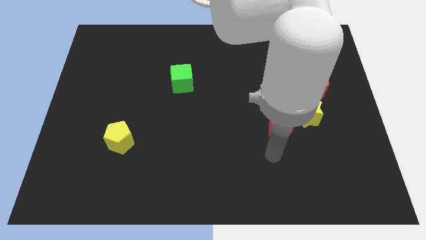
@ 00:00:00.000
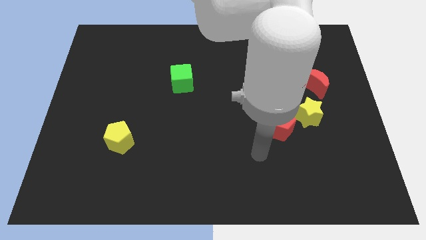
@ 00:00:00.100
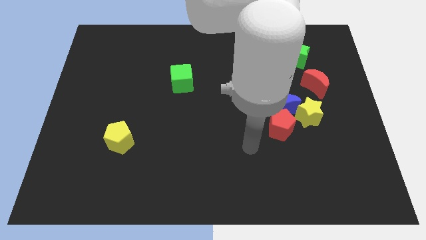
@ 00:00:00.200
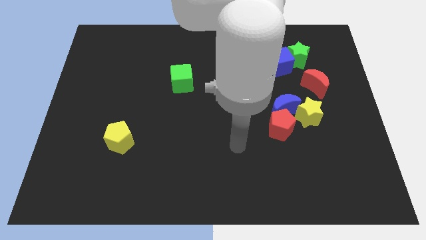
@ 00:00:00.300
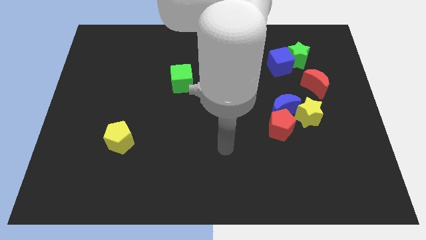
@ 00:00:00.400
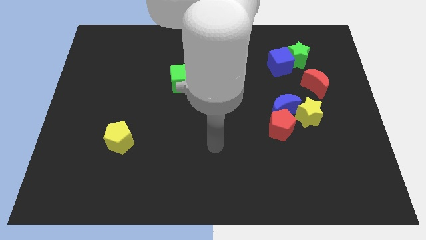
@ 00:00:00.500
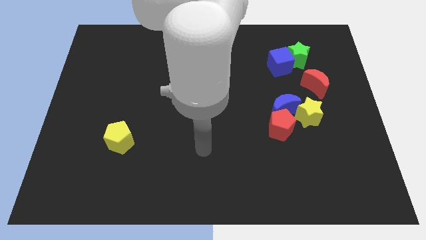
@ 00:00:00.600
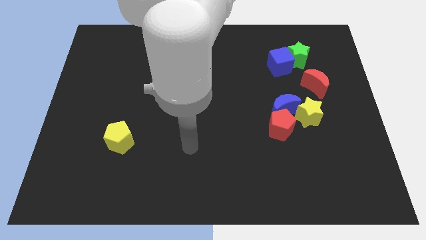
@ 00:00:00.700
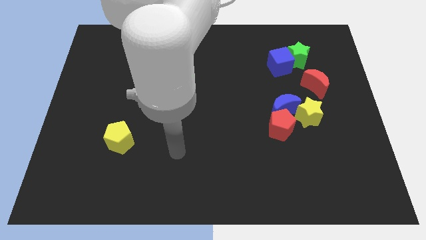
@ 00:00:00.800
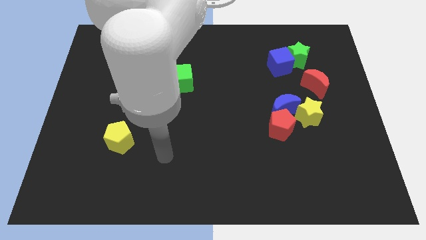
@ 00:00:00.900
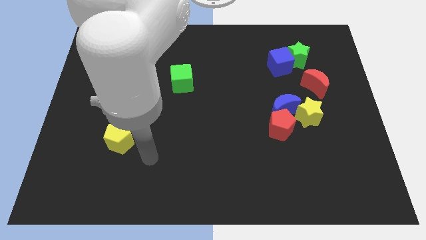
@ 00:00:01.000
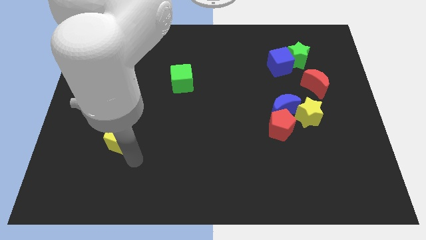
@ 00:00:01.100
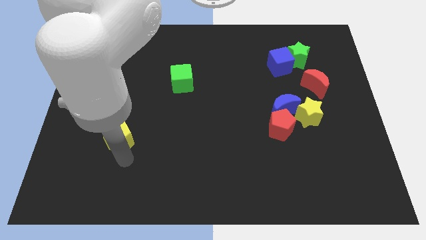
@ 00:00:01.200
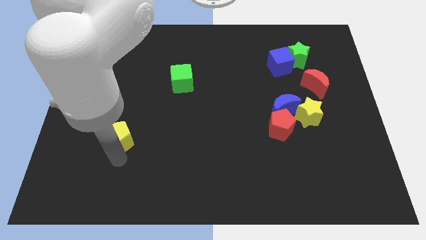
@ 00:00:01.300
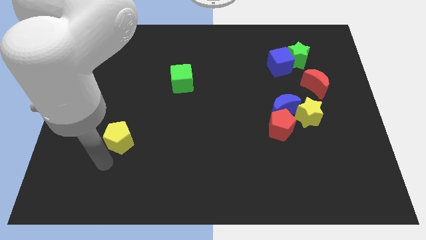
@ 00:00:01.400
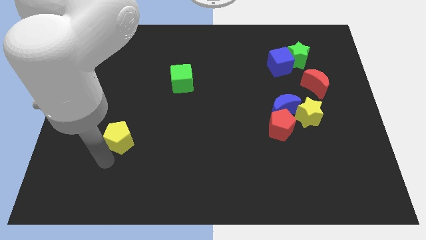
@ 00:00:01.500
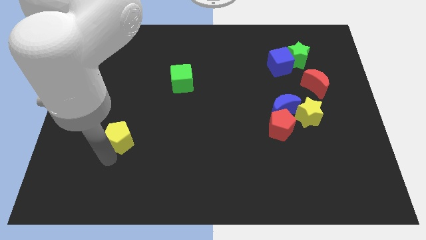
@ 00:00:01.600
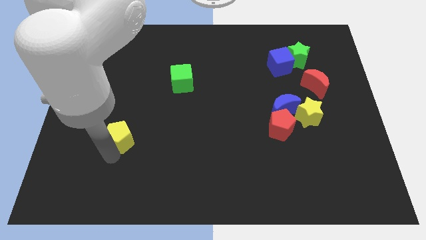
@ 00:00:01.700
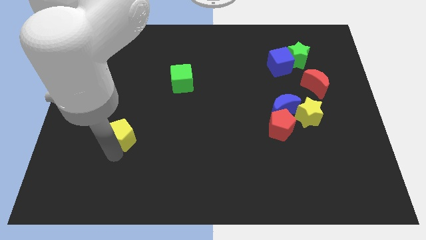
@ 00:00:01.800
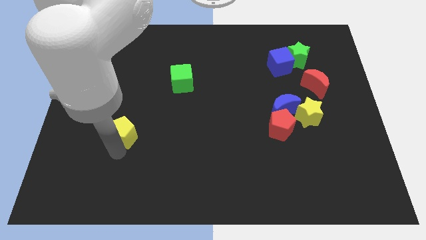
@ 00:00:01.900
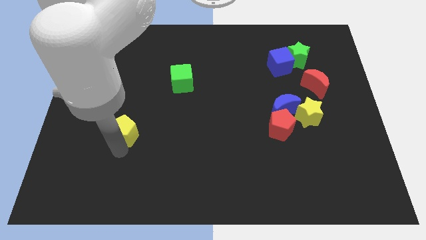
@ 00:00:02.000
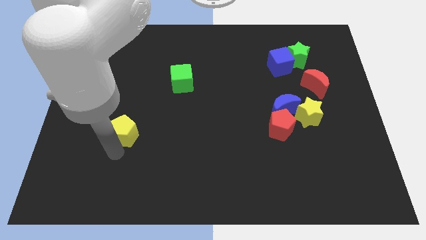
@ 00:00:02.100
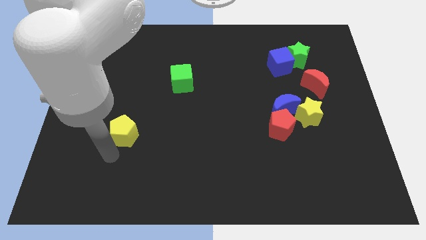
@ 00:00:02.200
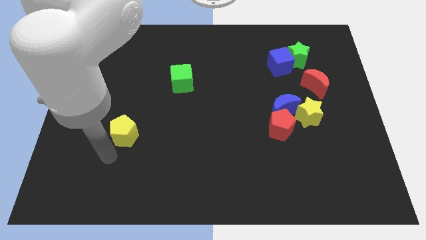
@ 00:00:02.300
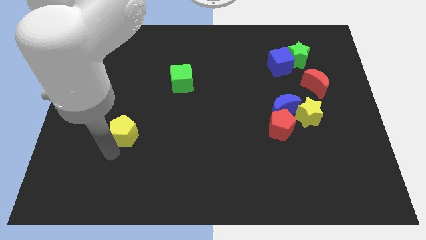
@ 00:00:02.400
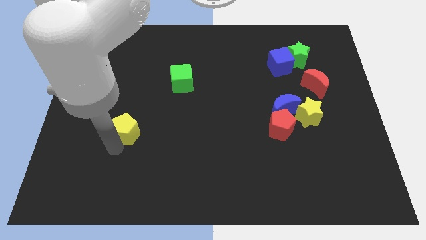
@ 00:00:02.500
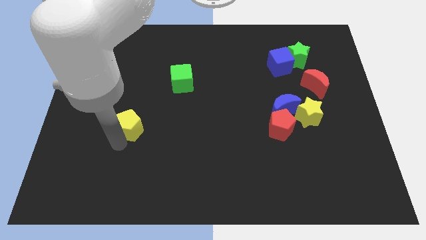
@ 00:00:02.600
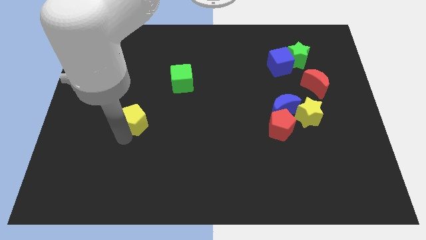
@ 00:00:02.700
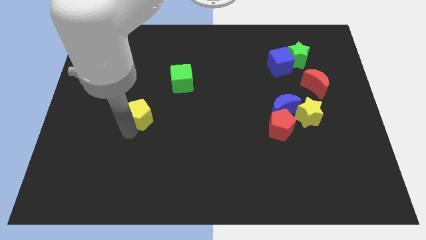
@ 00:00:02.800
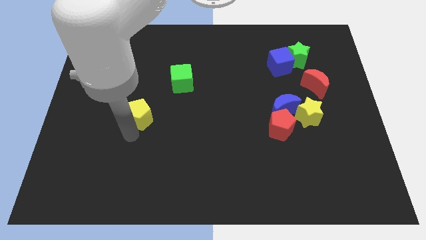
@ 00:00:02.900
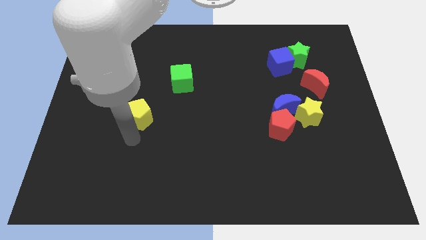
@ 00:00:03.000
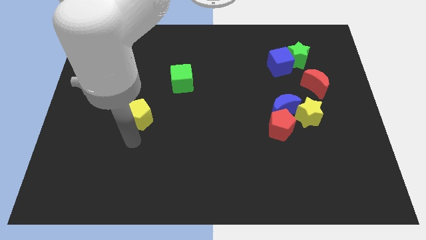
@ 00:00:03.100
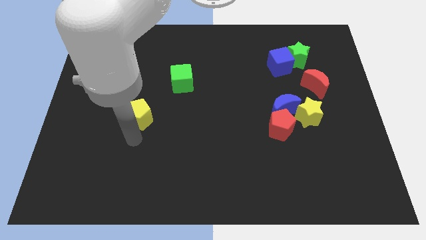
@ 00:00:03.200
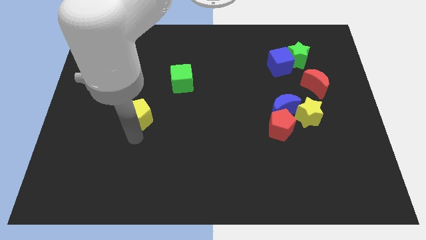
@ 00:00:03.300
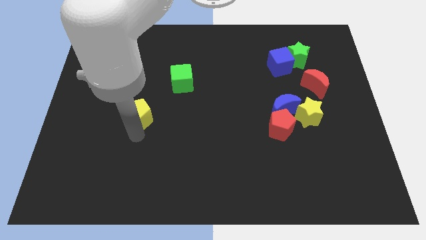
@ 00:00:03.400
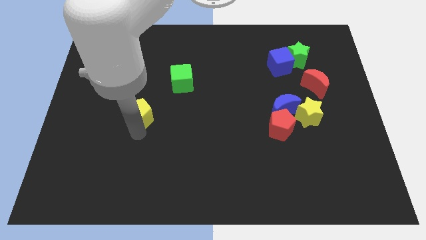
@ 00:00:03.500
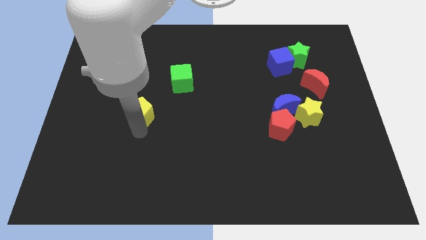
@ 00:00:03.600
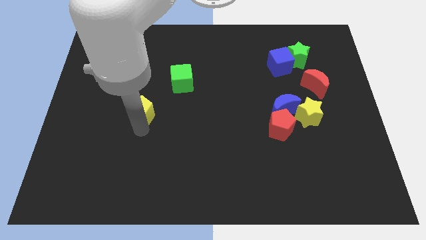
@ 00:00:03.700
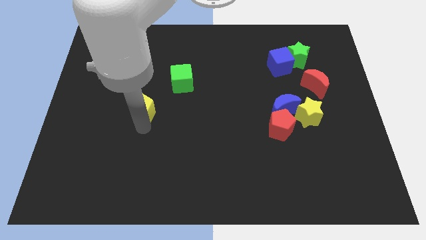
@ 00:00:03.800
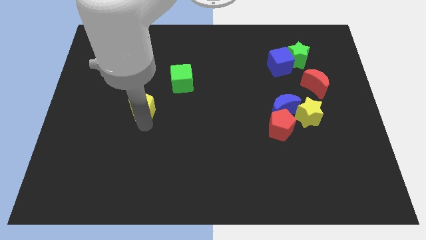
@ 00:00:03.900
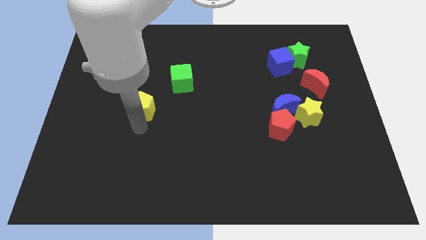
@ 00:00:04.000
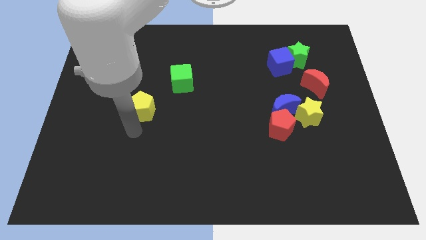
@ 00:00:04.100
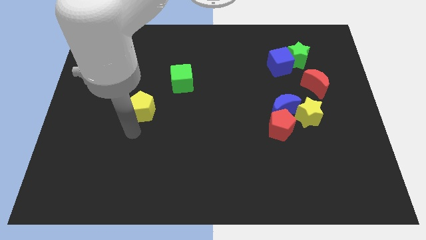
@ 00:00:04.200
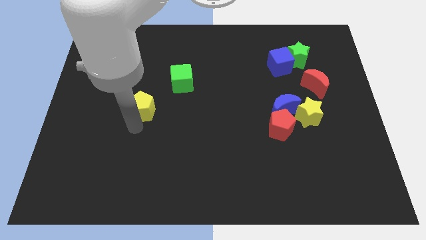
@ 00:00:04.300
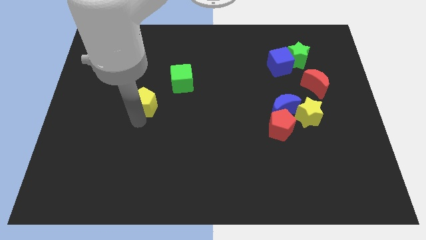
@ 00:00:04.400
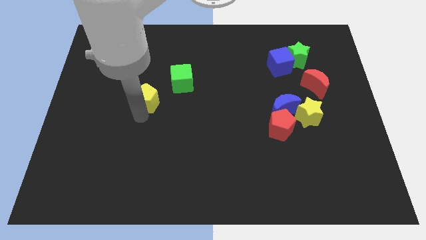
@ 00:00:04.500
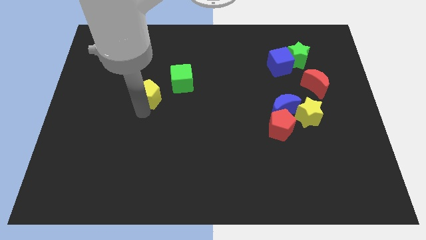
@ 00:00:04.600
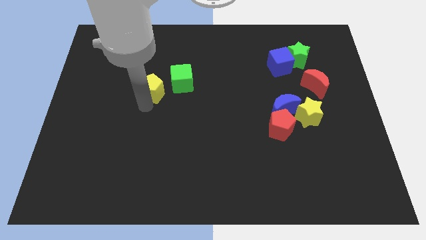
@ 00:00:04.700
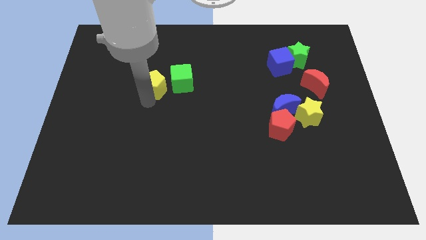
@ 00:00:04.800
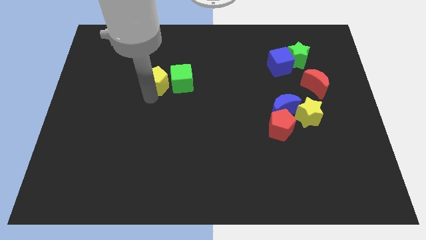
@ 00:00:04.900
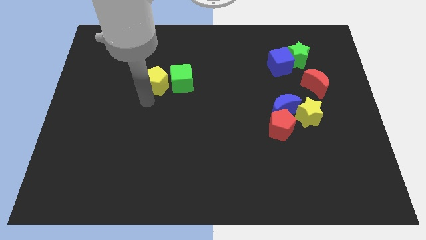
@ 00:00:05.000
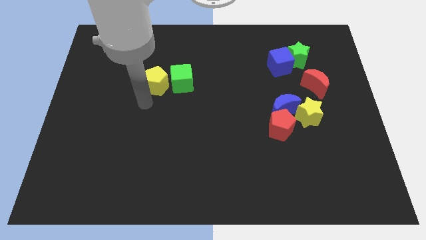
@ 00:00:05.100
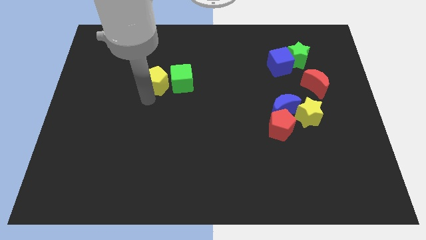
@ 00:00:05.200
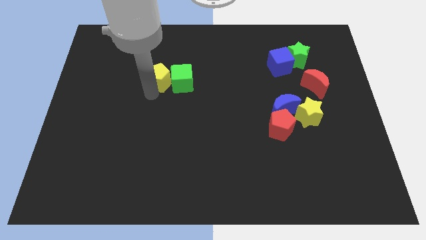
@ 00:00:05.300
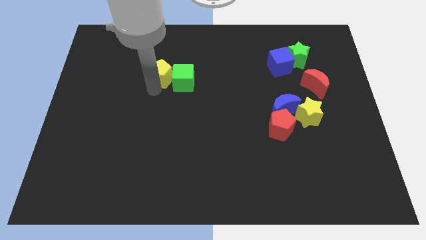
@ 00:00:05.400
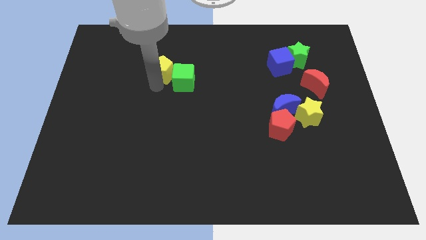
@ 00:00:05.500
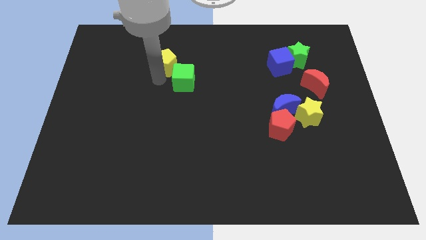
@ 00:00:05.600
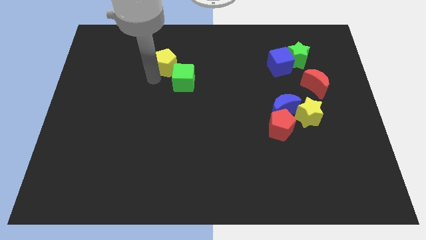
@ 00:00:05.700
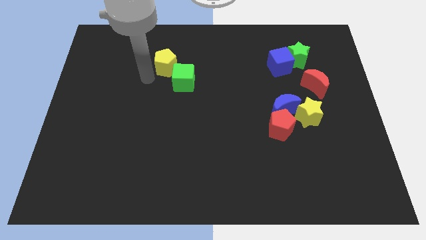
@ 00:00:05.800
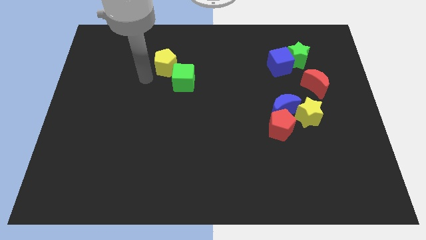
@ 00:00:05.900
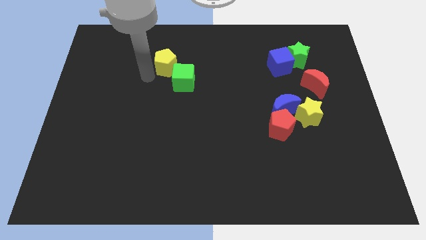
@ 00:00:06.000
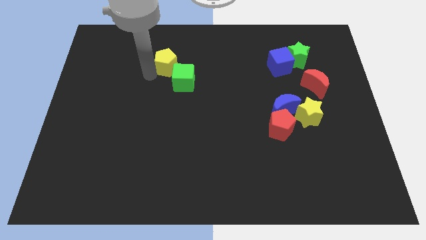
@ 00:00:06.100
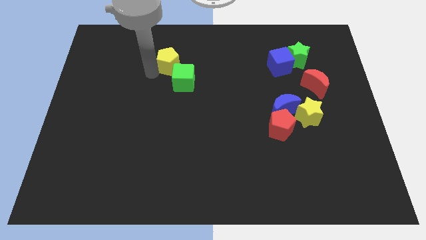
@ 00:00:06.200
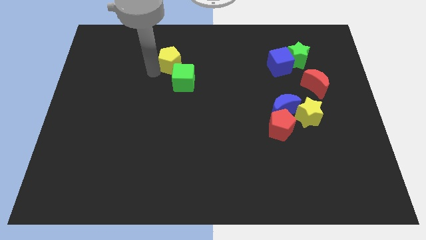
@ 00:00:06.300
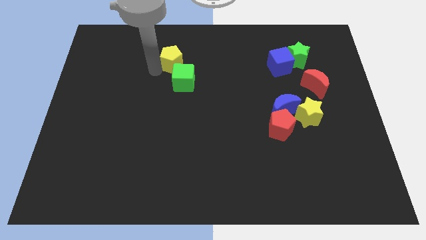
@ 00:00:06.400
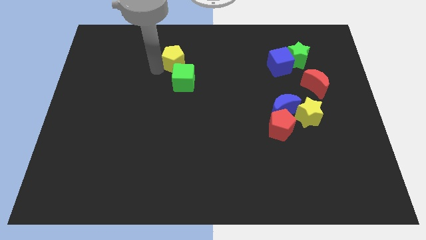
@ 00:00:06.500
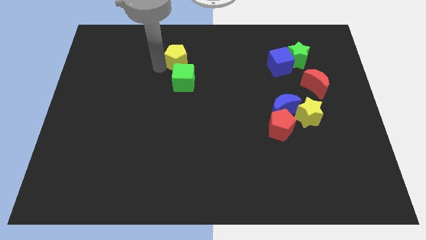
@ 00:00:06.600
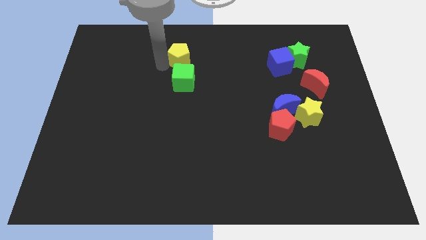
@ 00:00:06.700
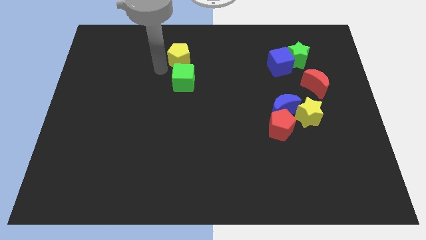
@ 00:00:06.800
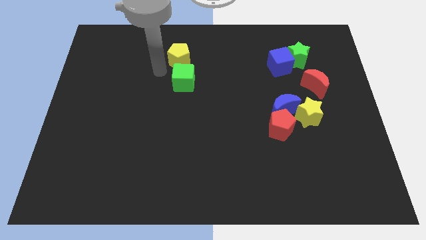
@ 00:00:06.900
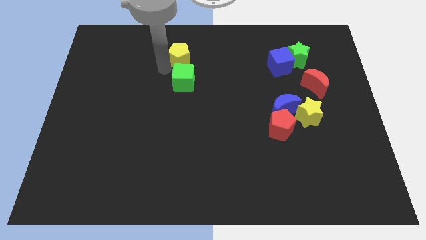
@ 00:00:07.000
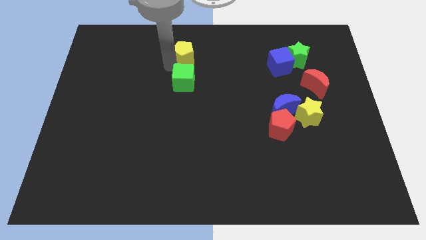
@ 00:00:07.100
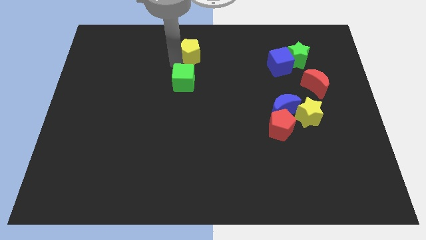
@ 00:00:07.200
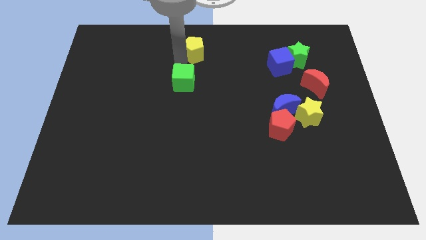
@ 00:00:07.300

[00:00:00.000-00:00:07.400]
move the yellow pentagon to the top
